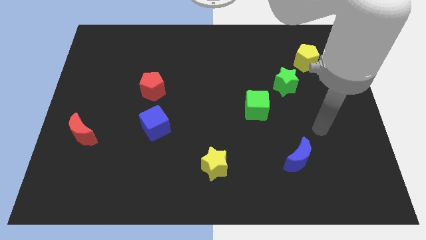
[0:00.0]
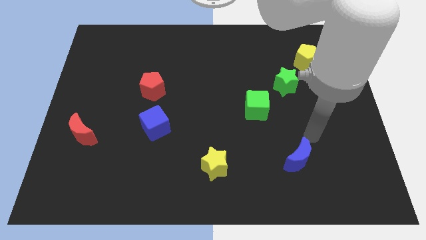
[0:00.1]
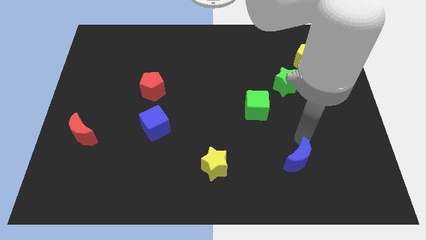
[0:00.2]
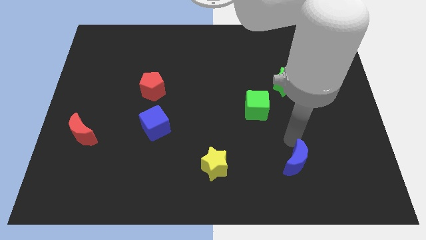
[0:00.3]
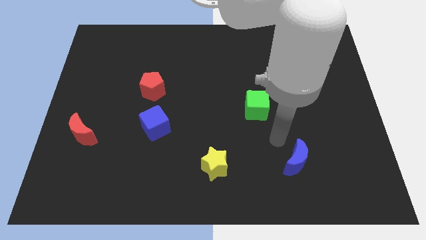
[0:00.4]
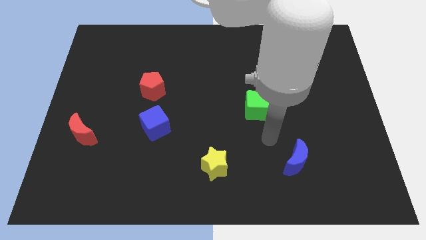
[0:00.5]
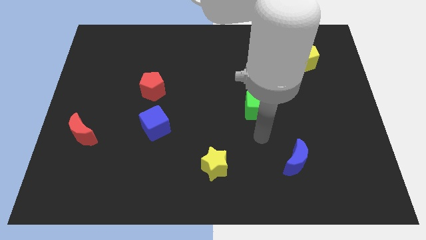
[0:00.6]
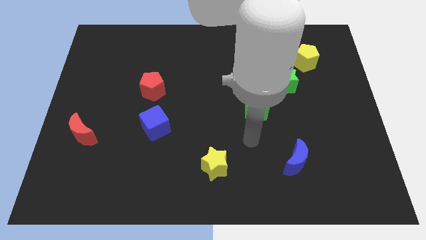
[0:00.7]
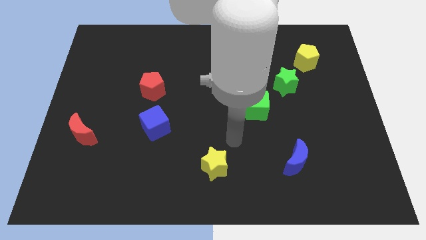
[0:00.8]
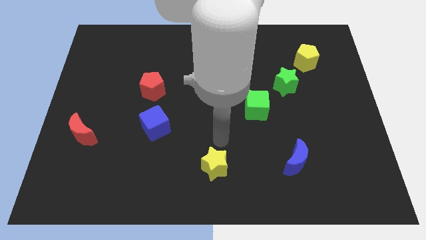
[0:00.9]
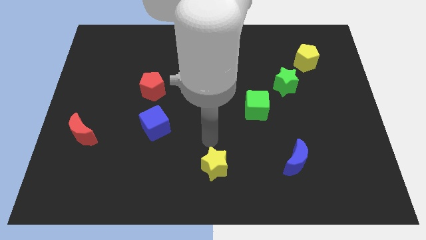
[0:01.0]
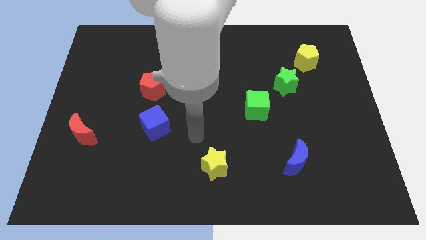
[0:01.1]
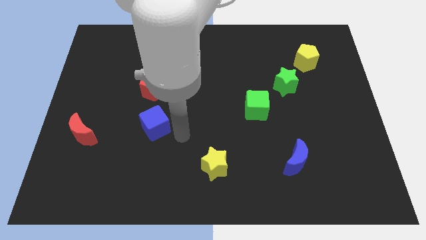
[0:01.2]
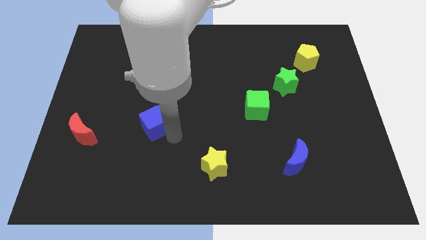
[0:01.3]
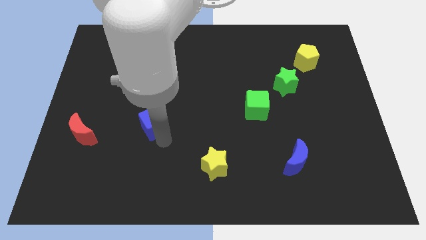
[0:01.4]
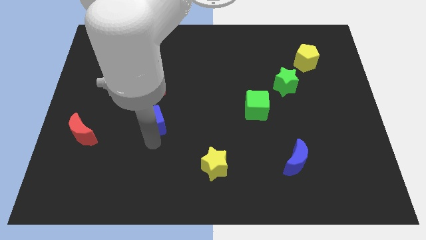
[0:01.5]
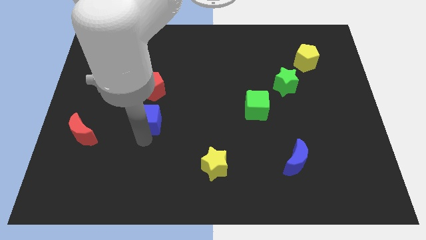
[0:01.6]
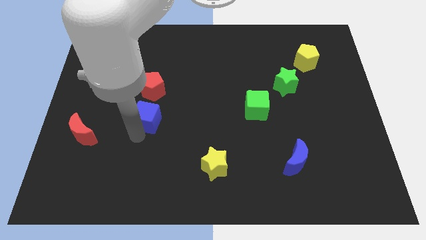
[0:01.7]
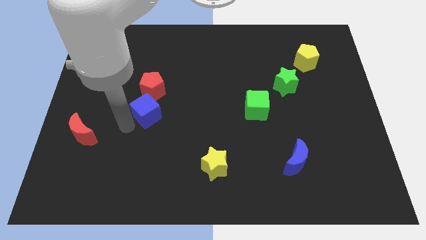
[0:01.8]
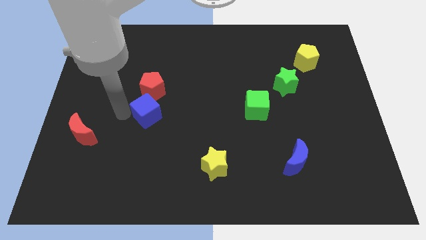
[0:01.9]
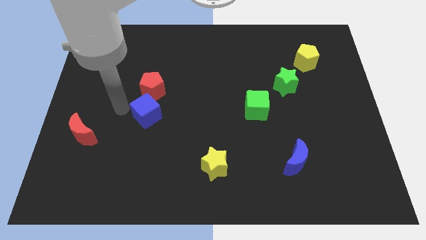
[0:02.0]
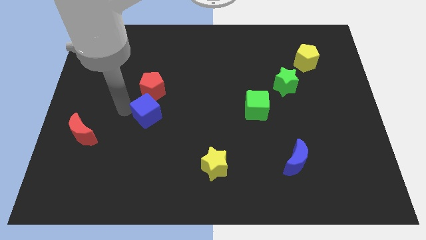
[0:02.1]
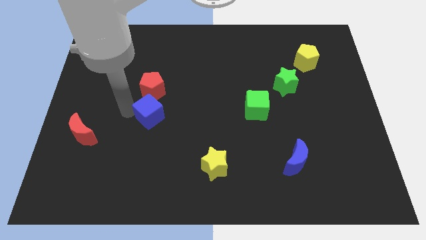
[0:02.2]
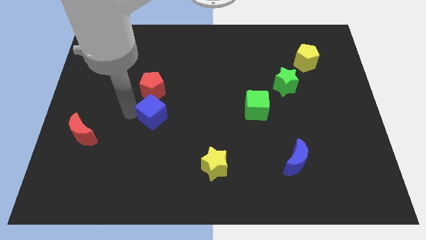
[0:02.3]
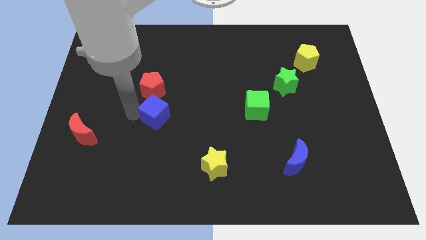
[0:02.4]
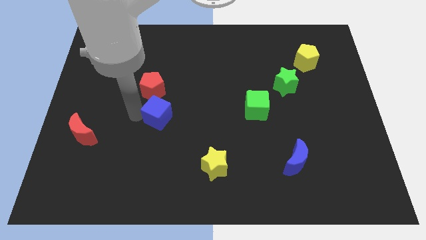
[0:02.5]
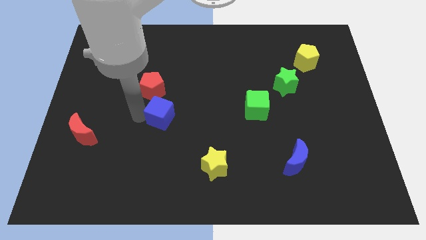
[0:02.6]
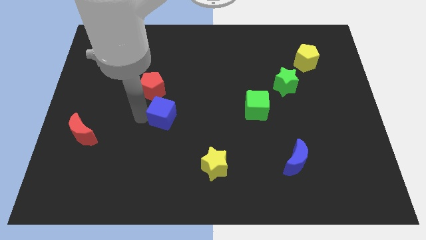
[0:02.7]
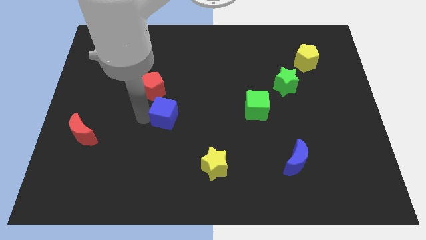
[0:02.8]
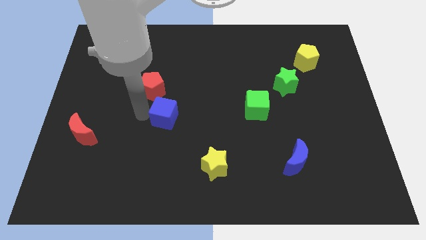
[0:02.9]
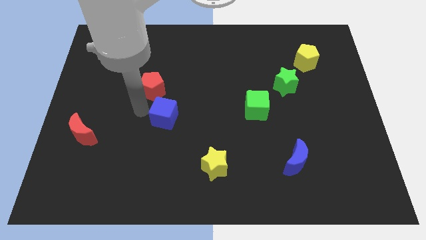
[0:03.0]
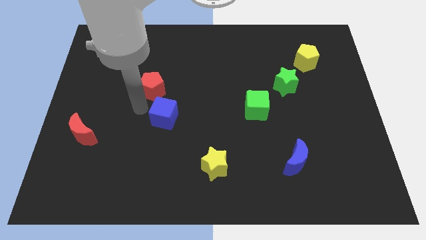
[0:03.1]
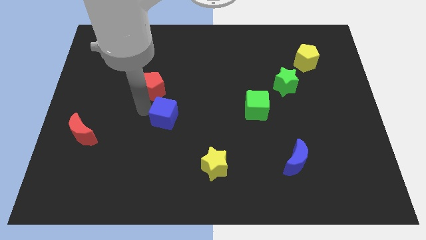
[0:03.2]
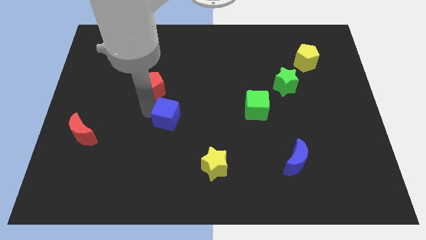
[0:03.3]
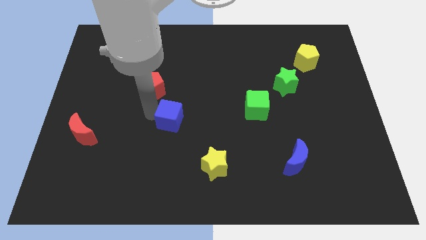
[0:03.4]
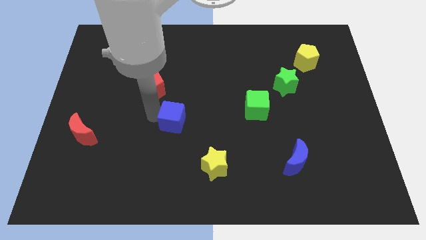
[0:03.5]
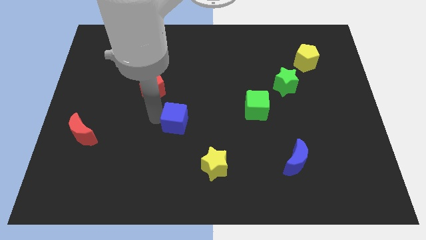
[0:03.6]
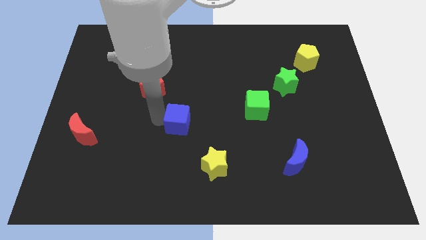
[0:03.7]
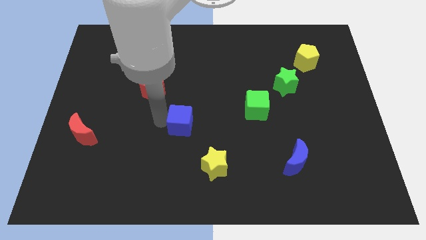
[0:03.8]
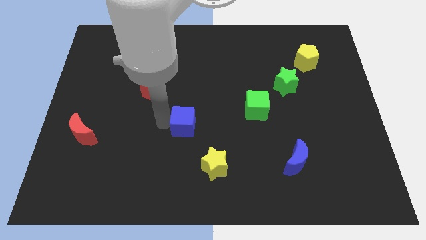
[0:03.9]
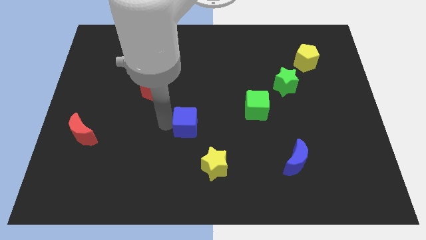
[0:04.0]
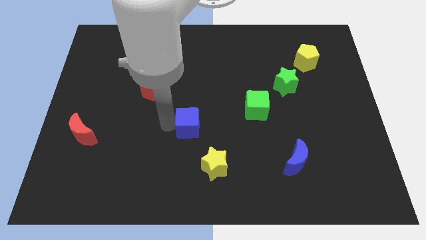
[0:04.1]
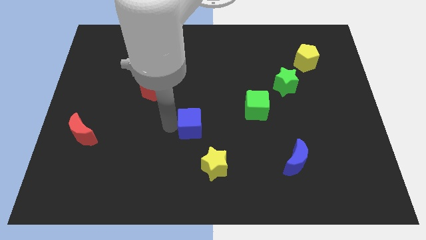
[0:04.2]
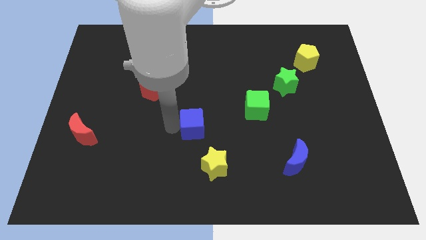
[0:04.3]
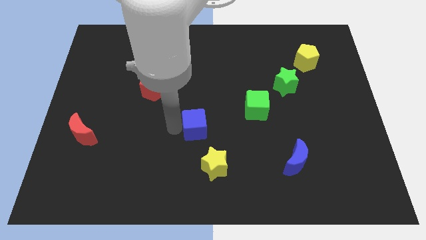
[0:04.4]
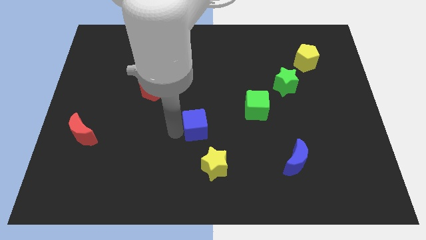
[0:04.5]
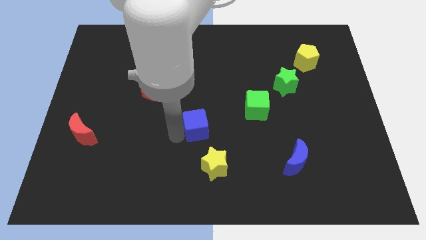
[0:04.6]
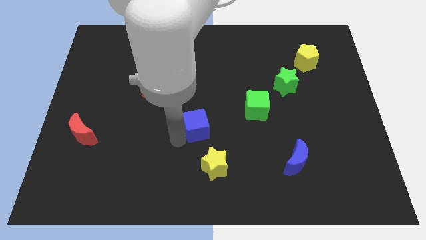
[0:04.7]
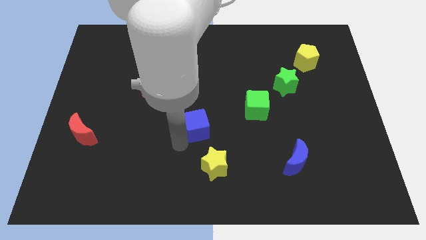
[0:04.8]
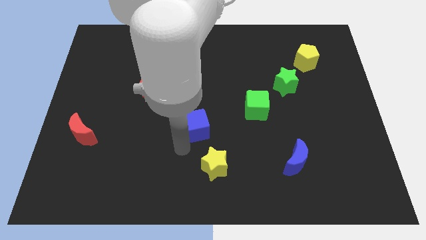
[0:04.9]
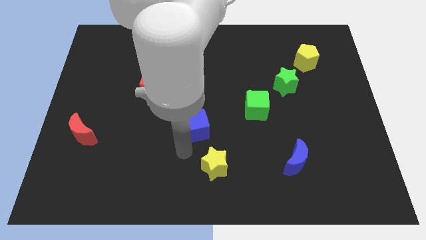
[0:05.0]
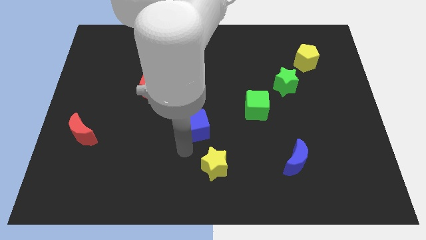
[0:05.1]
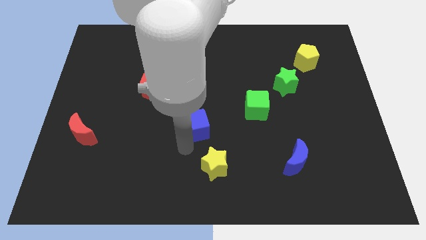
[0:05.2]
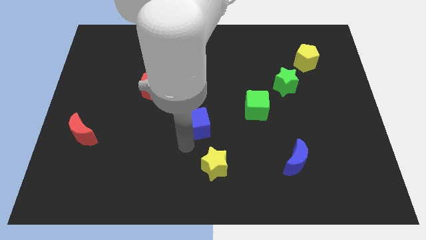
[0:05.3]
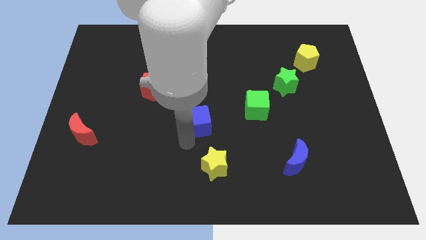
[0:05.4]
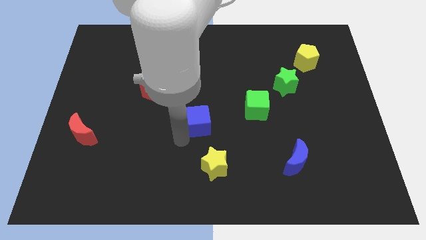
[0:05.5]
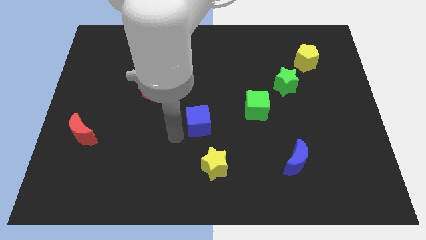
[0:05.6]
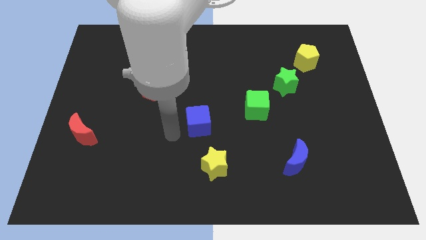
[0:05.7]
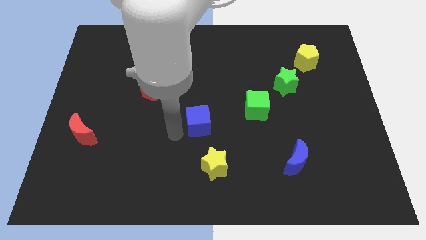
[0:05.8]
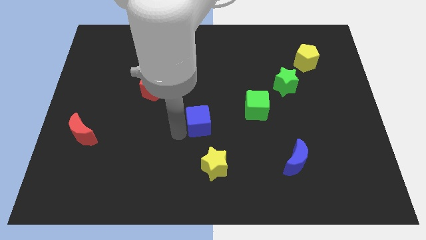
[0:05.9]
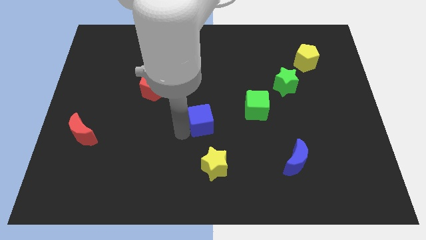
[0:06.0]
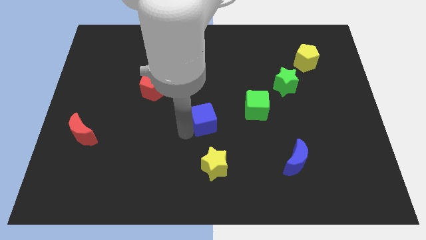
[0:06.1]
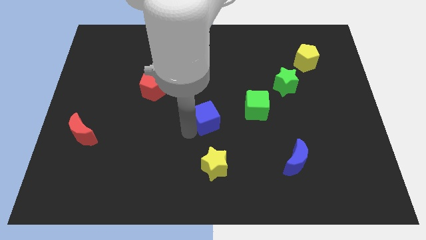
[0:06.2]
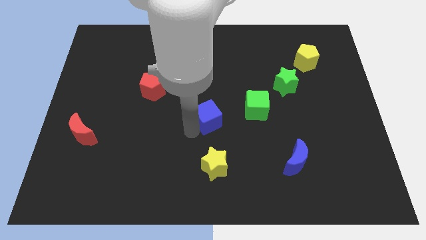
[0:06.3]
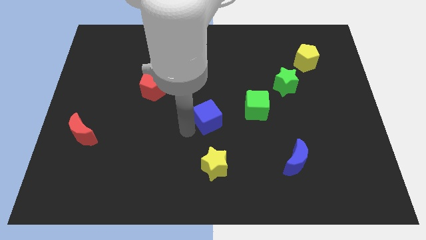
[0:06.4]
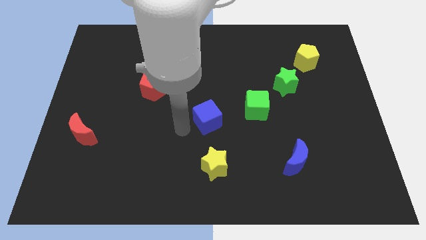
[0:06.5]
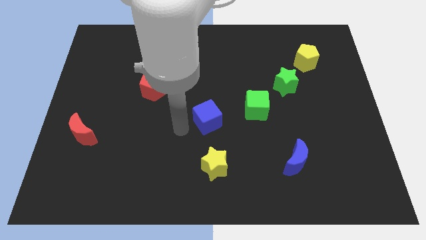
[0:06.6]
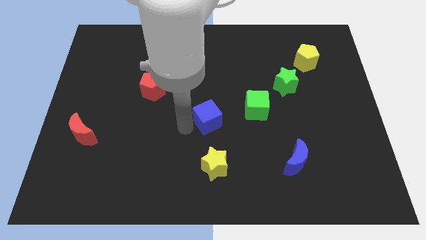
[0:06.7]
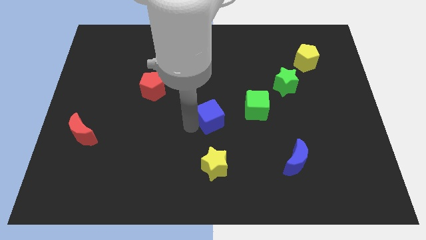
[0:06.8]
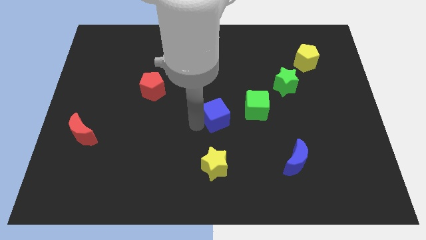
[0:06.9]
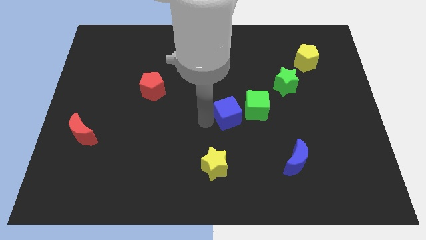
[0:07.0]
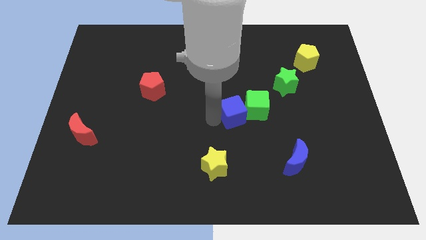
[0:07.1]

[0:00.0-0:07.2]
move the blue cube close to the green cube
